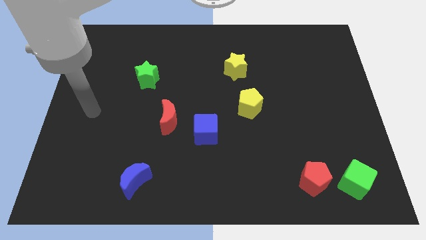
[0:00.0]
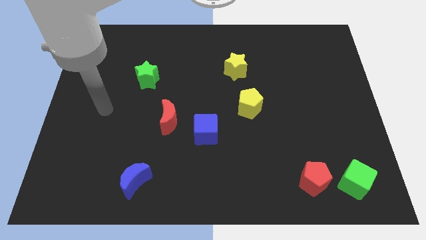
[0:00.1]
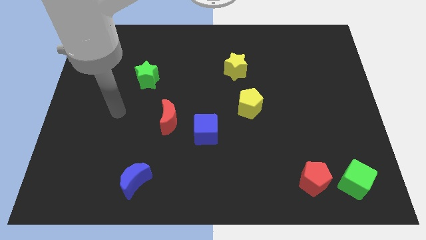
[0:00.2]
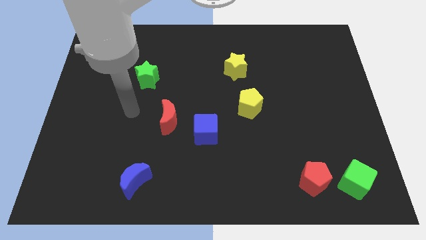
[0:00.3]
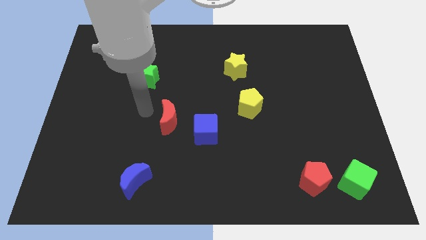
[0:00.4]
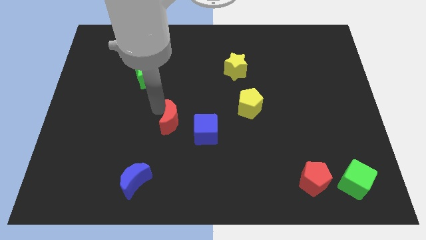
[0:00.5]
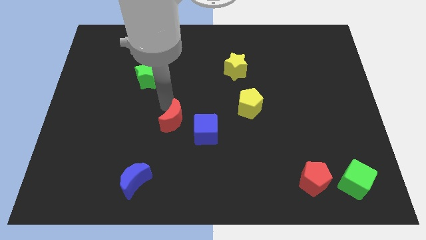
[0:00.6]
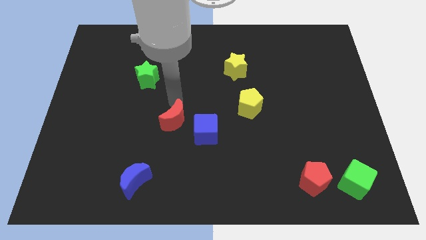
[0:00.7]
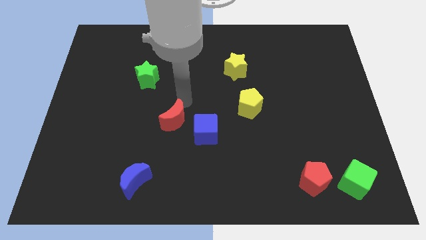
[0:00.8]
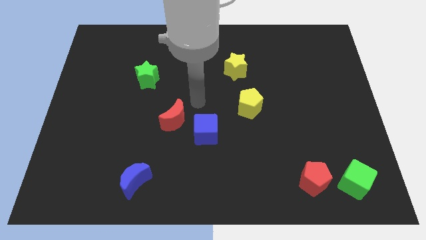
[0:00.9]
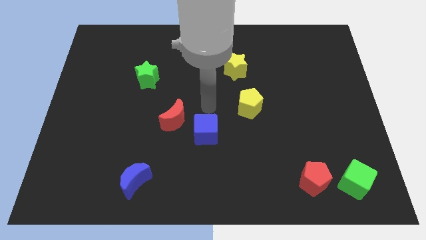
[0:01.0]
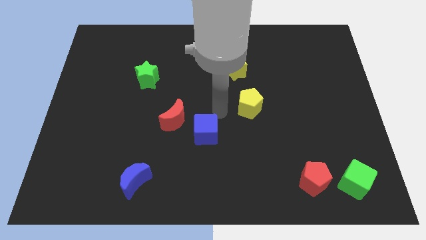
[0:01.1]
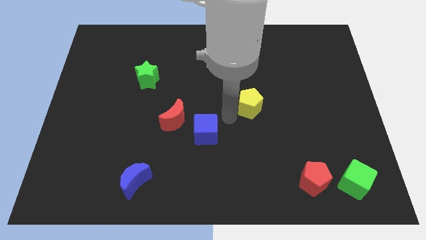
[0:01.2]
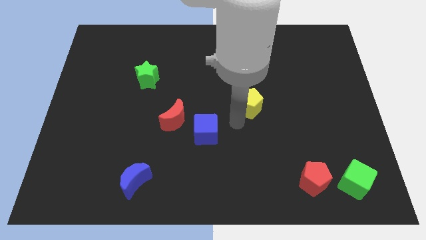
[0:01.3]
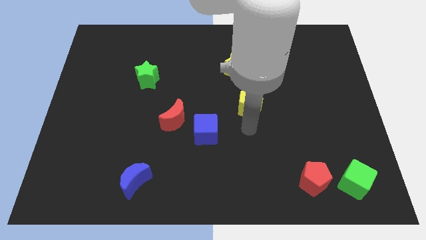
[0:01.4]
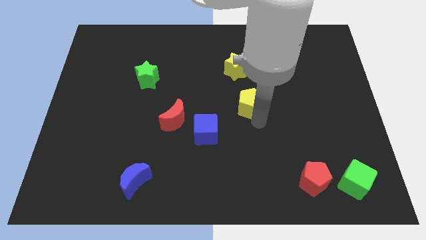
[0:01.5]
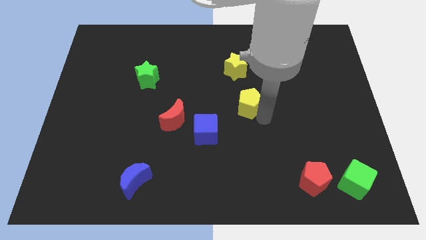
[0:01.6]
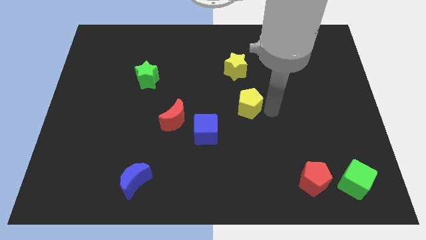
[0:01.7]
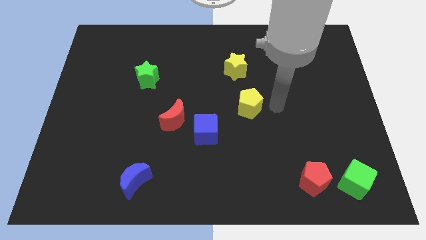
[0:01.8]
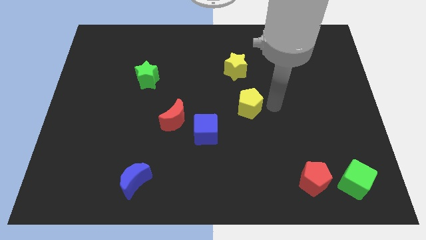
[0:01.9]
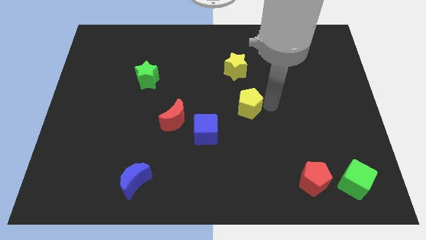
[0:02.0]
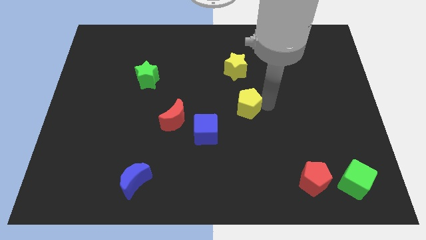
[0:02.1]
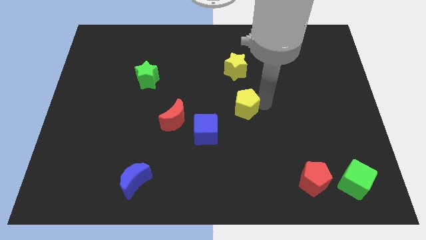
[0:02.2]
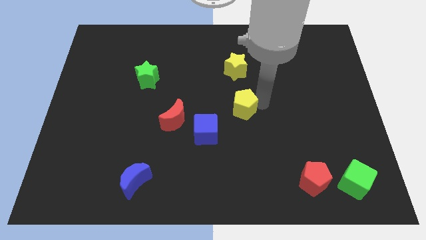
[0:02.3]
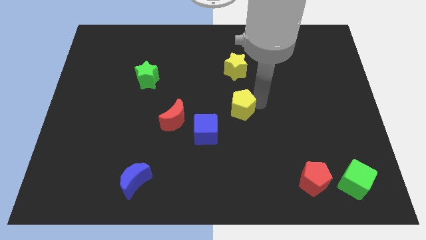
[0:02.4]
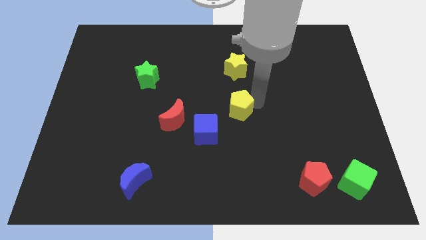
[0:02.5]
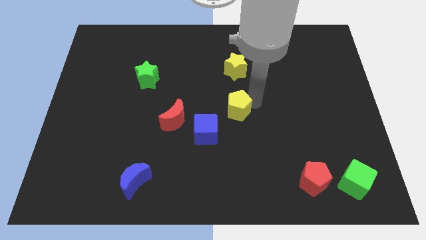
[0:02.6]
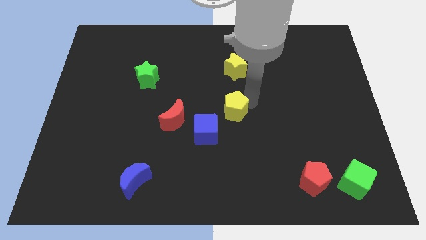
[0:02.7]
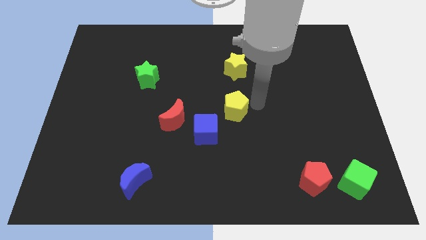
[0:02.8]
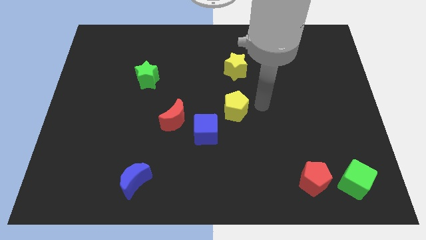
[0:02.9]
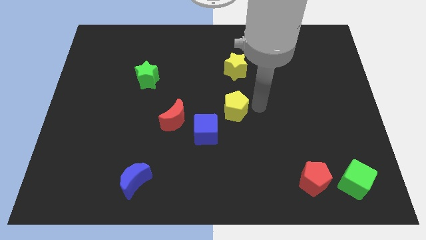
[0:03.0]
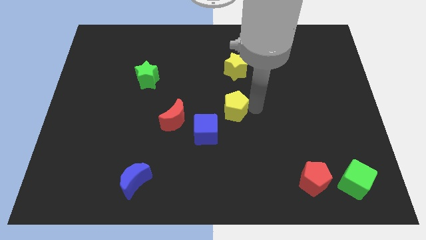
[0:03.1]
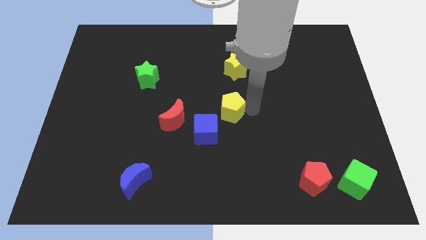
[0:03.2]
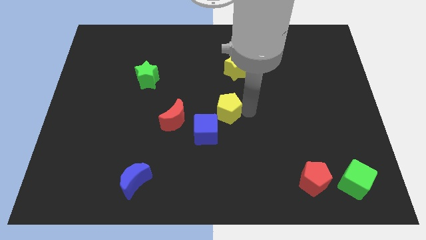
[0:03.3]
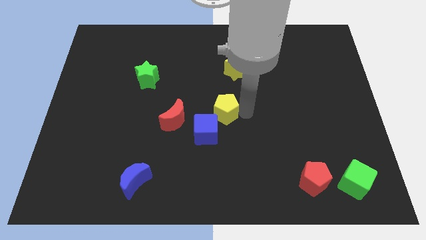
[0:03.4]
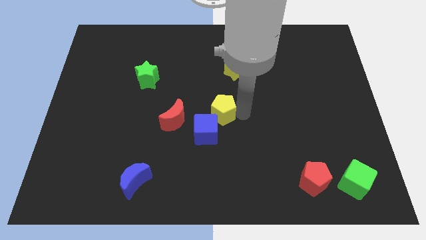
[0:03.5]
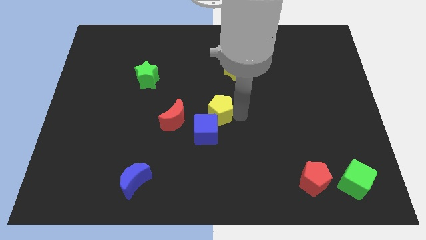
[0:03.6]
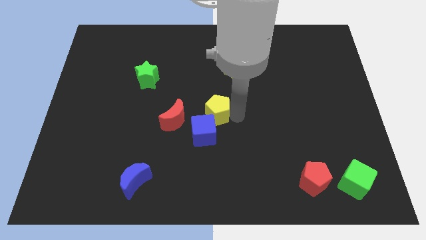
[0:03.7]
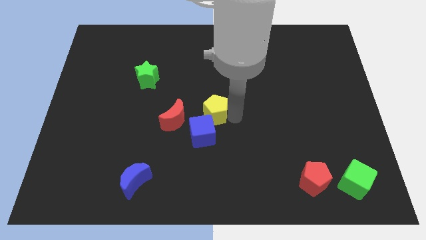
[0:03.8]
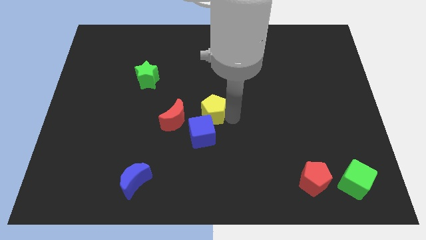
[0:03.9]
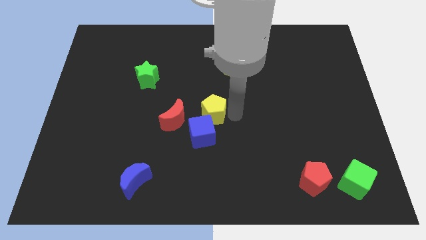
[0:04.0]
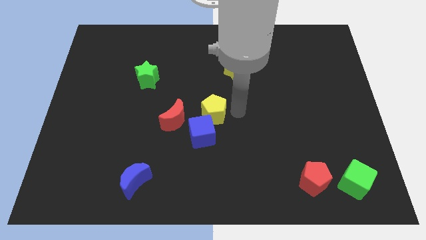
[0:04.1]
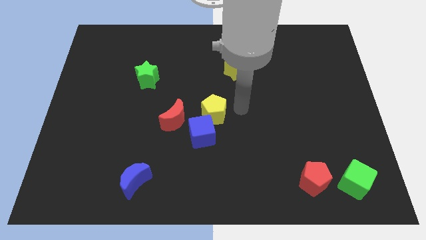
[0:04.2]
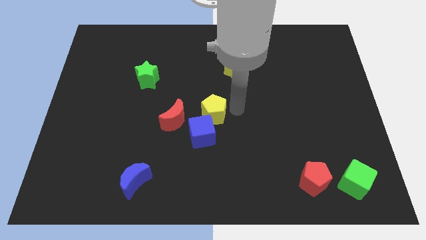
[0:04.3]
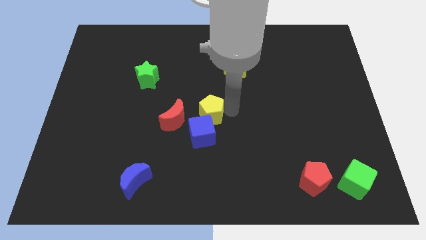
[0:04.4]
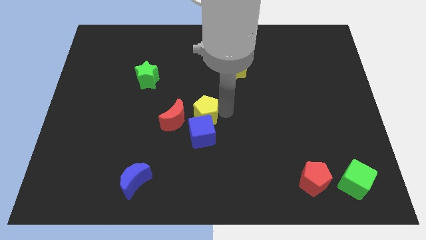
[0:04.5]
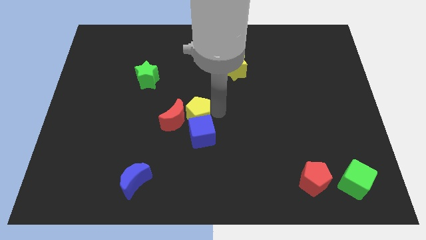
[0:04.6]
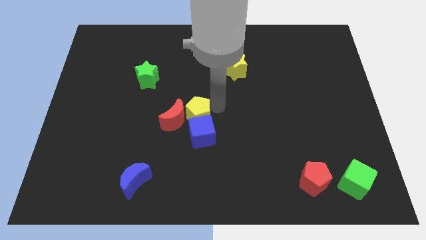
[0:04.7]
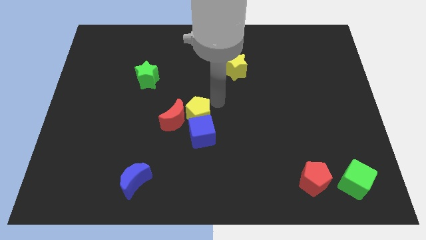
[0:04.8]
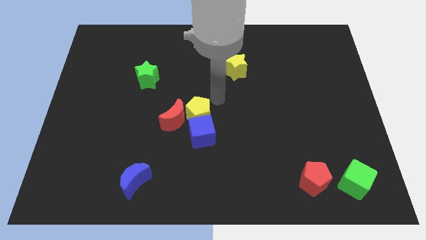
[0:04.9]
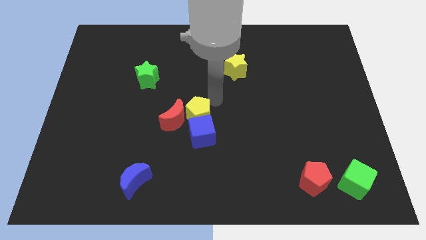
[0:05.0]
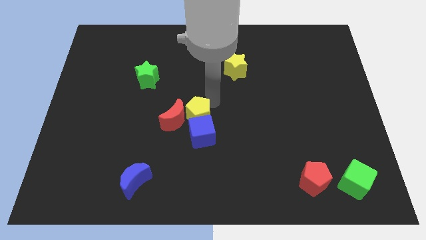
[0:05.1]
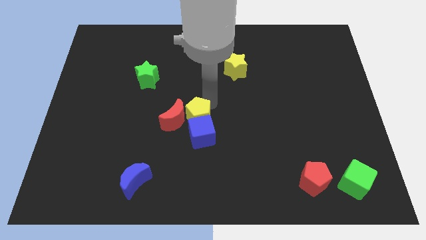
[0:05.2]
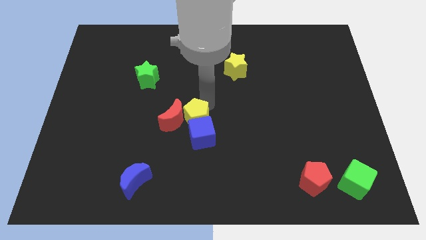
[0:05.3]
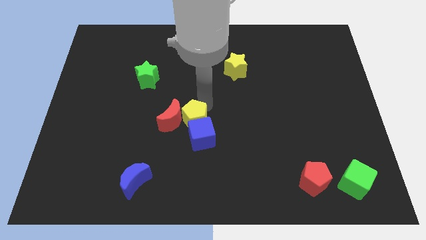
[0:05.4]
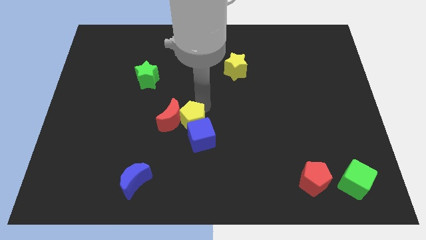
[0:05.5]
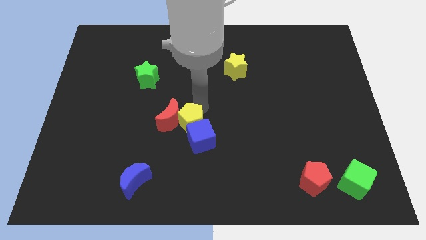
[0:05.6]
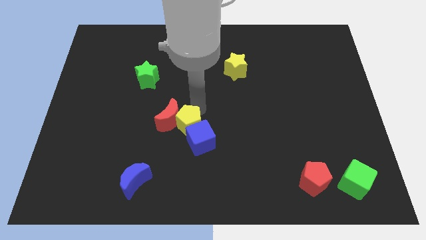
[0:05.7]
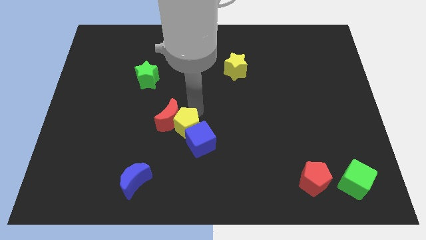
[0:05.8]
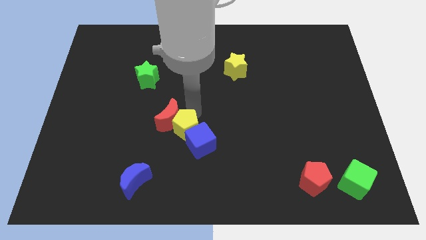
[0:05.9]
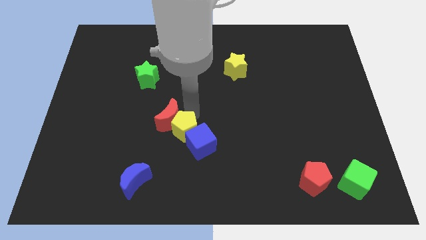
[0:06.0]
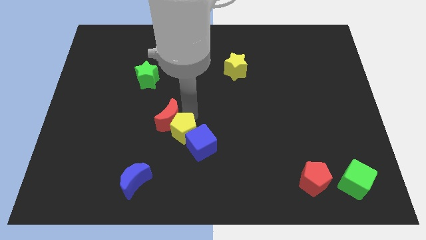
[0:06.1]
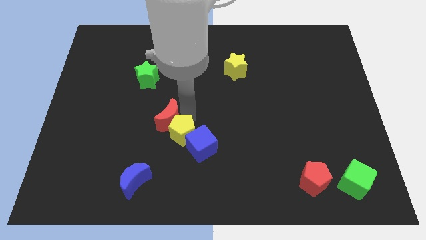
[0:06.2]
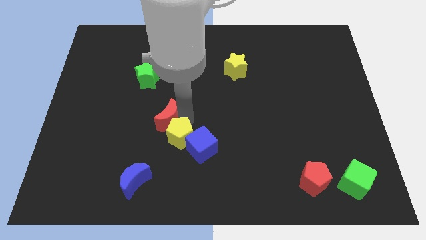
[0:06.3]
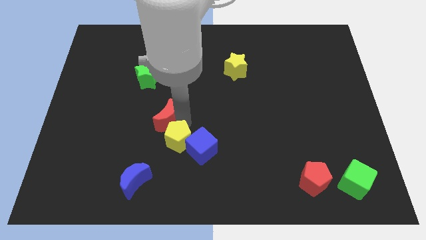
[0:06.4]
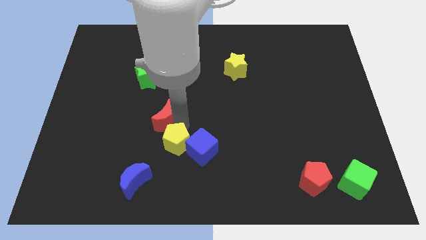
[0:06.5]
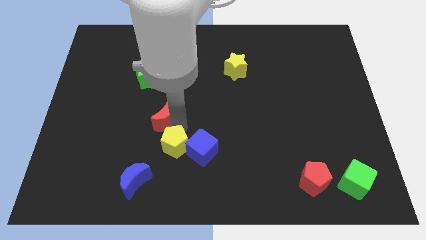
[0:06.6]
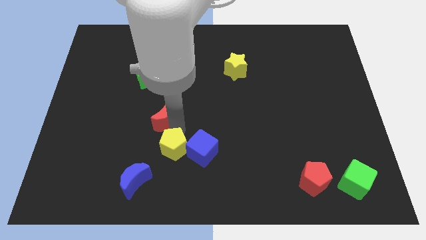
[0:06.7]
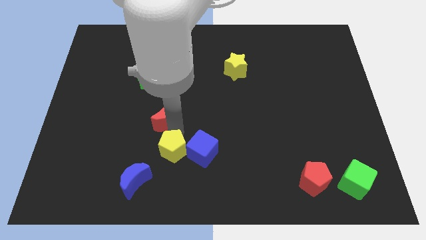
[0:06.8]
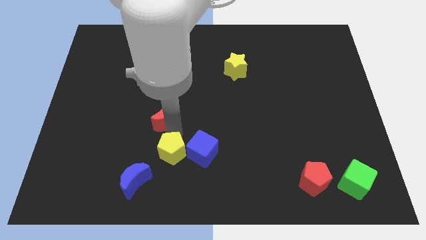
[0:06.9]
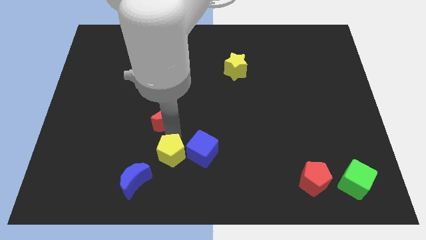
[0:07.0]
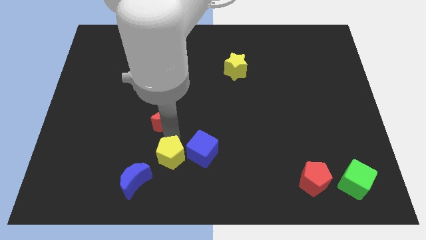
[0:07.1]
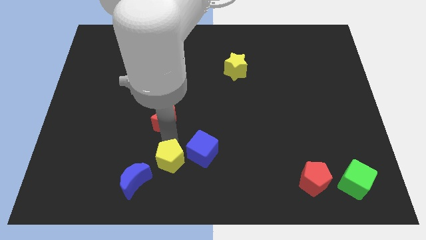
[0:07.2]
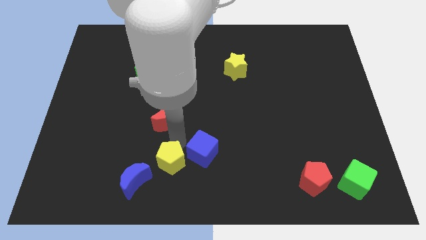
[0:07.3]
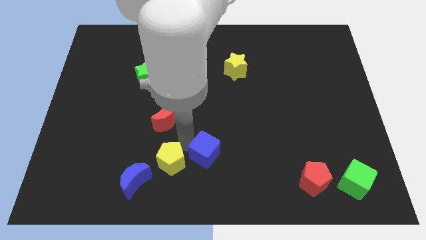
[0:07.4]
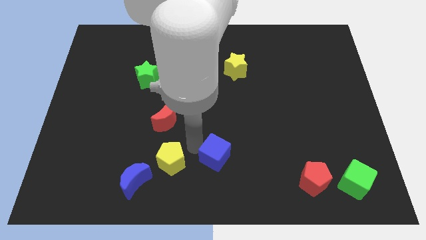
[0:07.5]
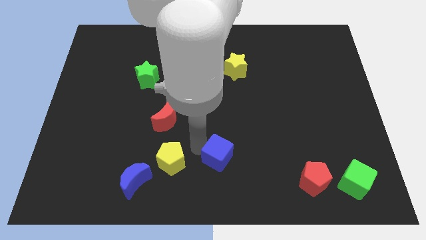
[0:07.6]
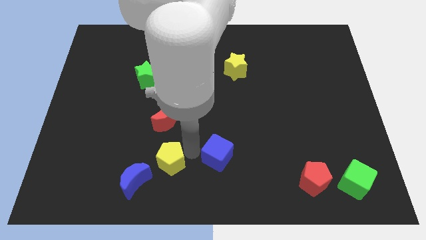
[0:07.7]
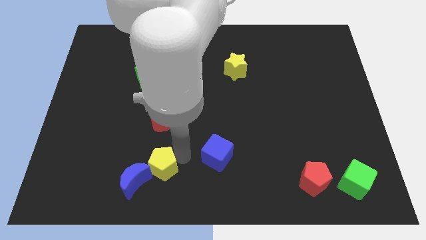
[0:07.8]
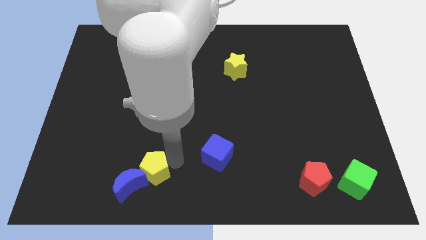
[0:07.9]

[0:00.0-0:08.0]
slide the yellow pentagon close to the blue moon

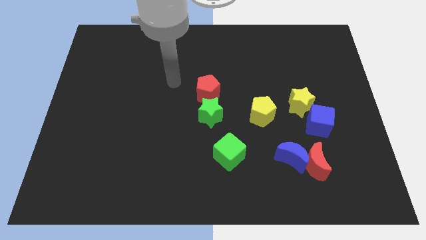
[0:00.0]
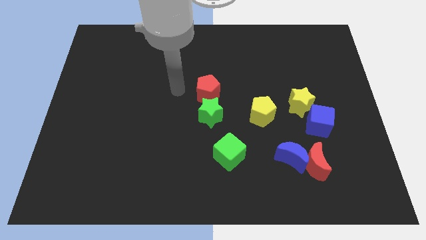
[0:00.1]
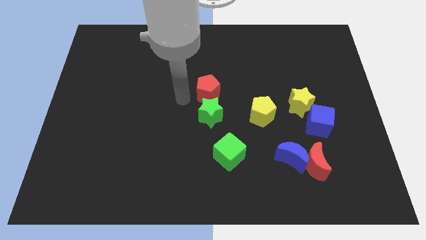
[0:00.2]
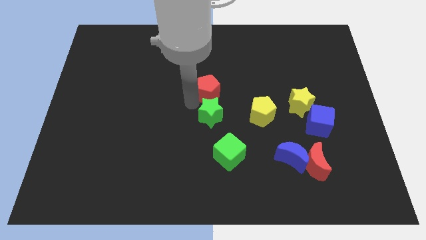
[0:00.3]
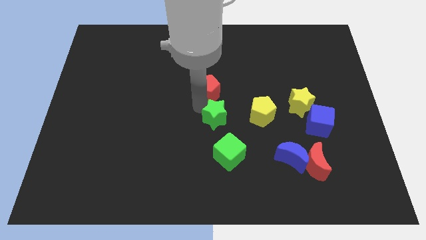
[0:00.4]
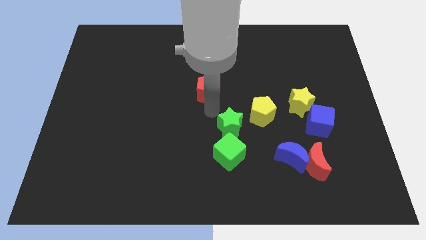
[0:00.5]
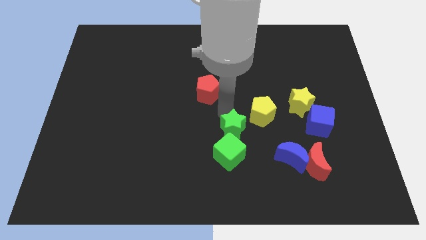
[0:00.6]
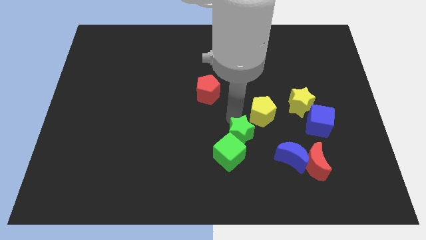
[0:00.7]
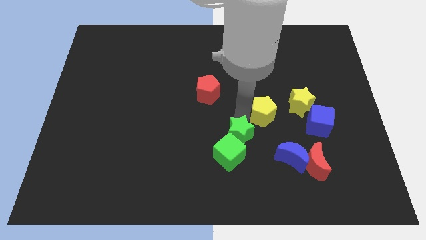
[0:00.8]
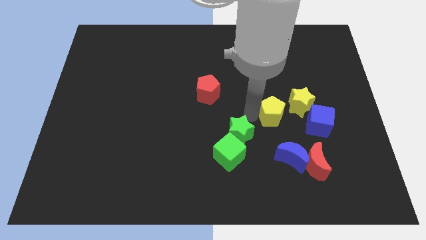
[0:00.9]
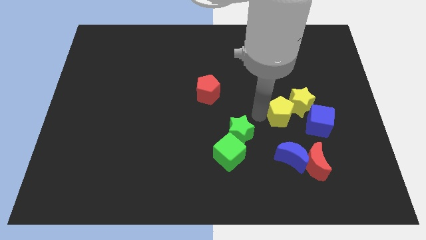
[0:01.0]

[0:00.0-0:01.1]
push the yellow pentagon next to the yellow star
